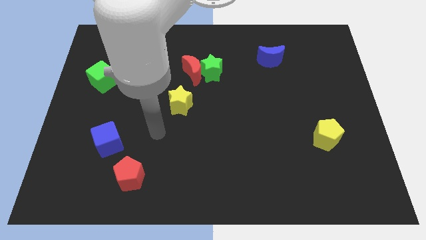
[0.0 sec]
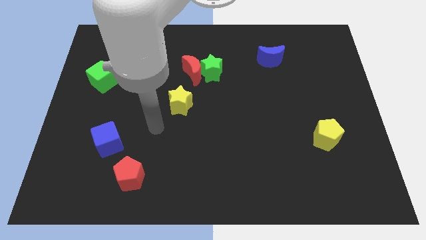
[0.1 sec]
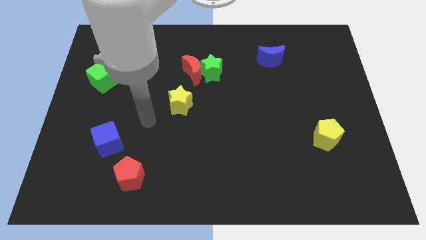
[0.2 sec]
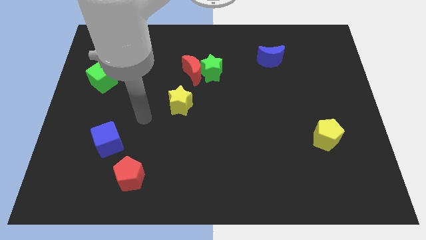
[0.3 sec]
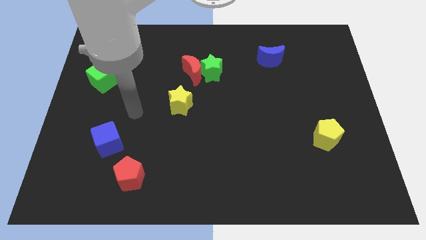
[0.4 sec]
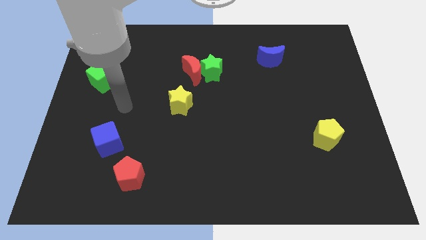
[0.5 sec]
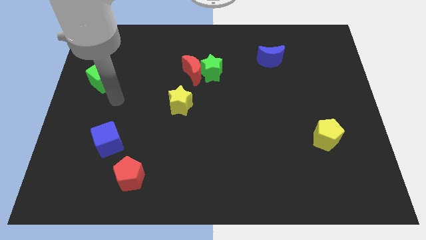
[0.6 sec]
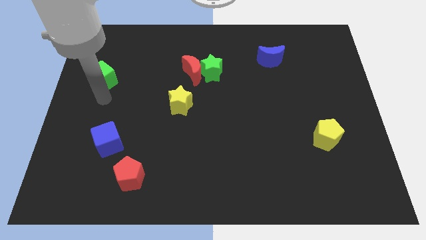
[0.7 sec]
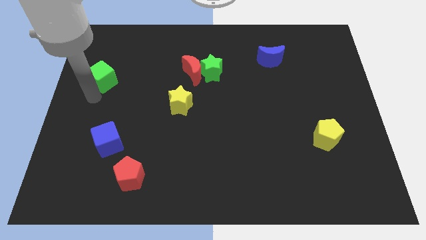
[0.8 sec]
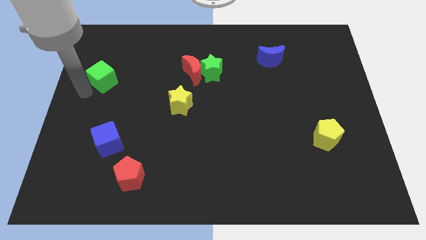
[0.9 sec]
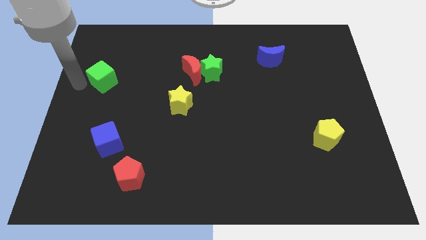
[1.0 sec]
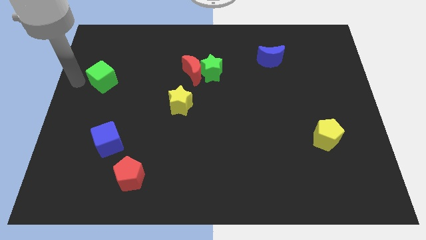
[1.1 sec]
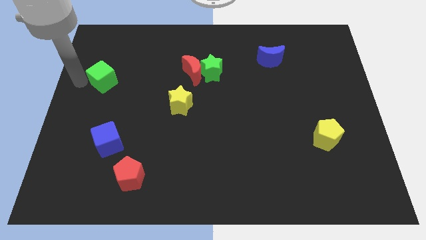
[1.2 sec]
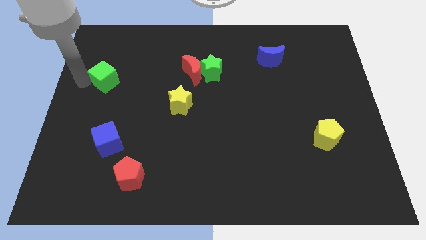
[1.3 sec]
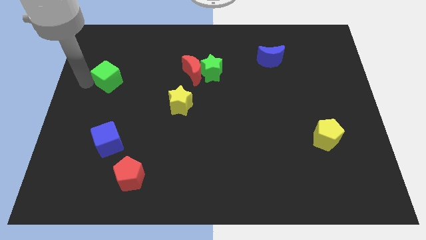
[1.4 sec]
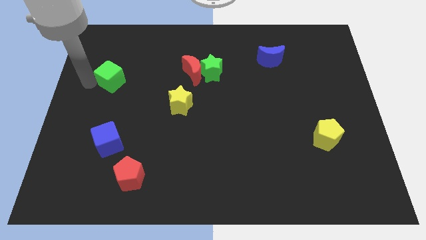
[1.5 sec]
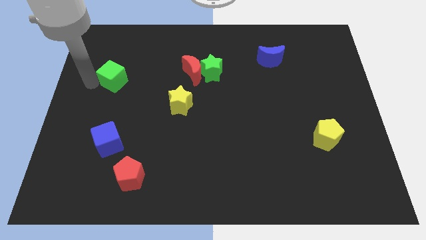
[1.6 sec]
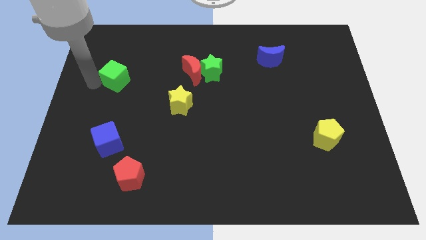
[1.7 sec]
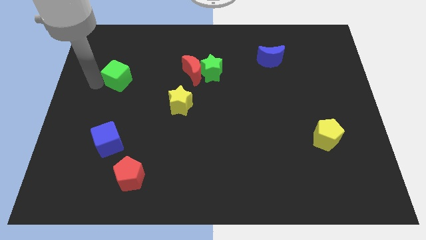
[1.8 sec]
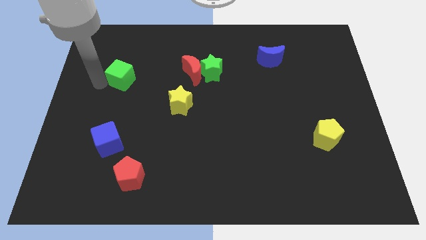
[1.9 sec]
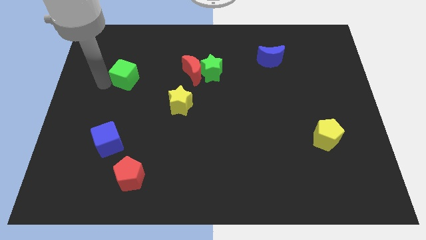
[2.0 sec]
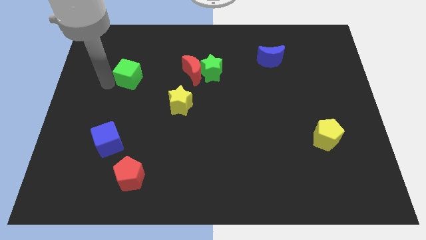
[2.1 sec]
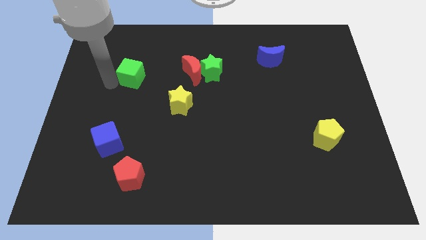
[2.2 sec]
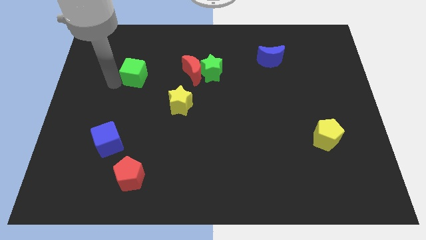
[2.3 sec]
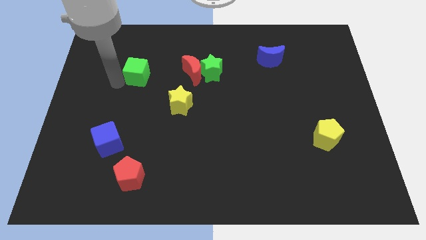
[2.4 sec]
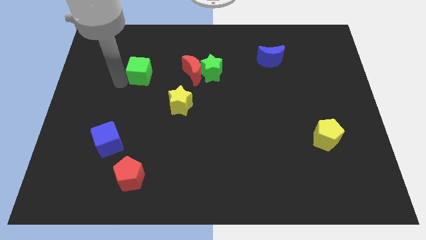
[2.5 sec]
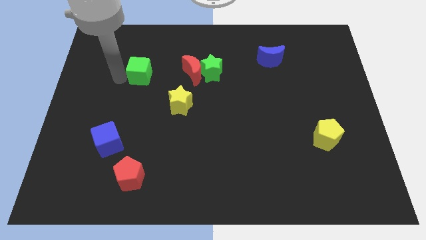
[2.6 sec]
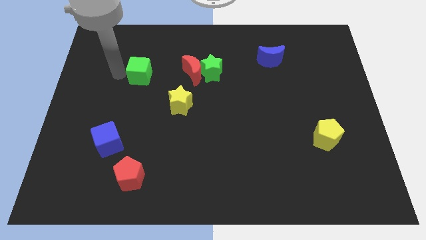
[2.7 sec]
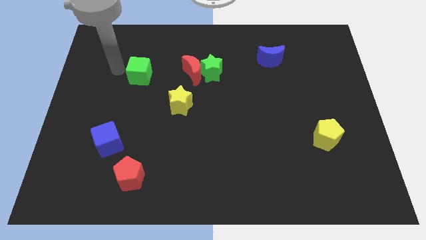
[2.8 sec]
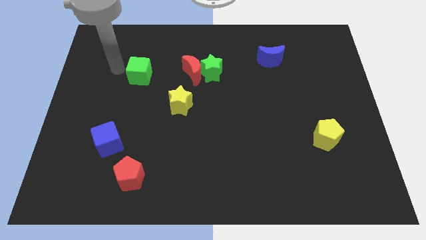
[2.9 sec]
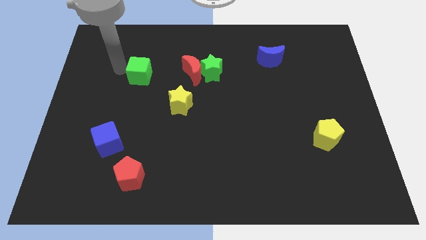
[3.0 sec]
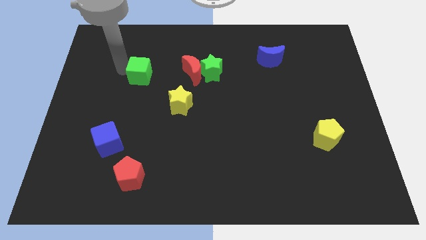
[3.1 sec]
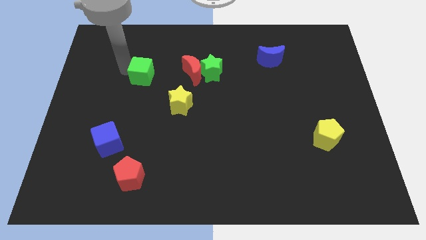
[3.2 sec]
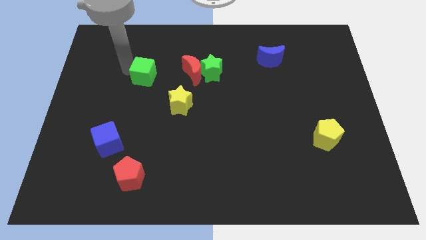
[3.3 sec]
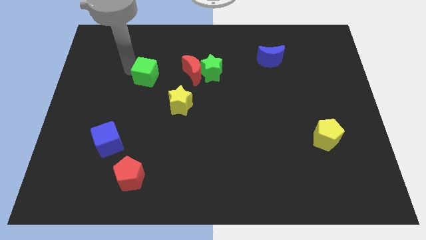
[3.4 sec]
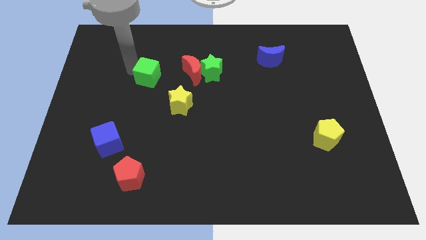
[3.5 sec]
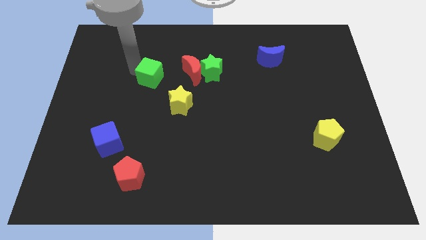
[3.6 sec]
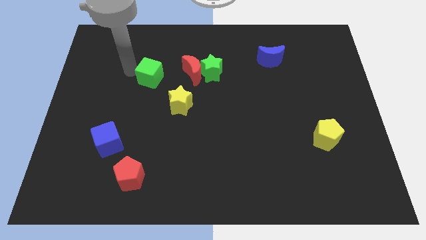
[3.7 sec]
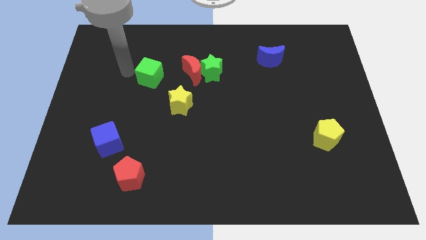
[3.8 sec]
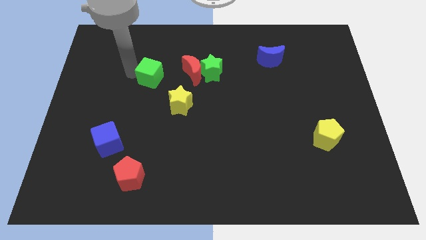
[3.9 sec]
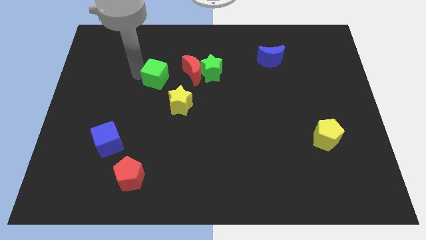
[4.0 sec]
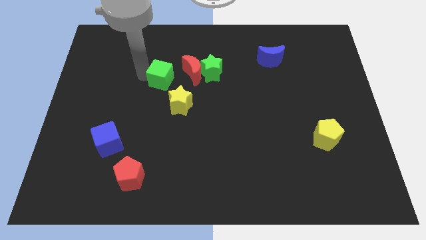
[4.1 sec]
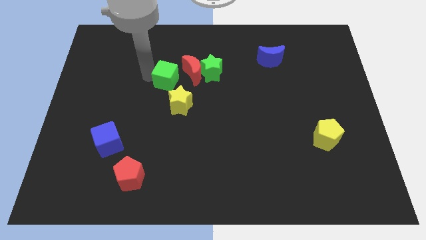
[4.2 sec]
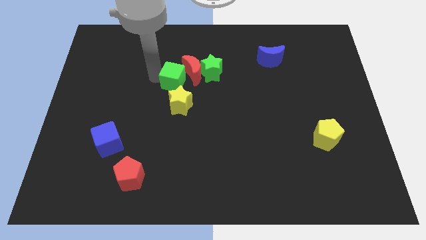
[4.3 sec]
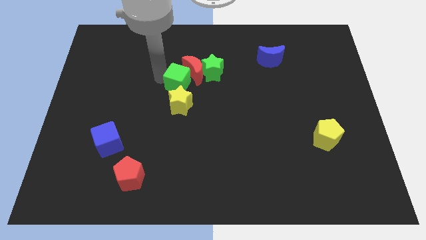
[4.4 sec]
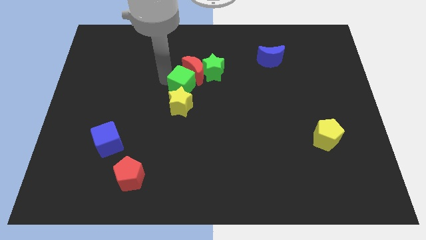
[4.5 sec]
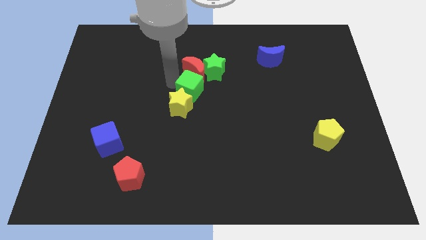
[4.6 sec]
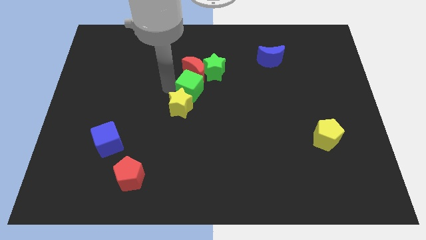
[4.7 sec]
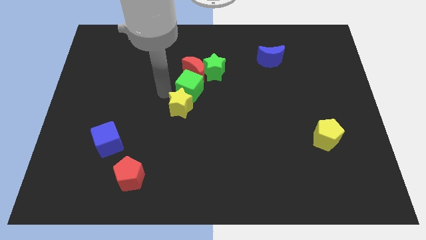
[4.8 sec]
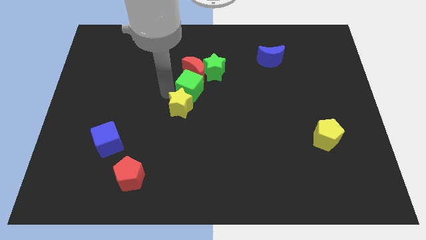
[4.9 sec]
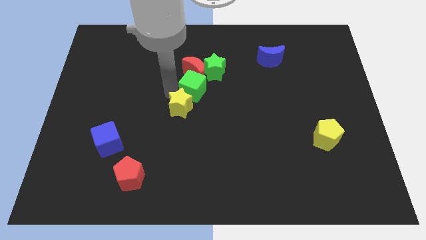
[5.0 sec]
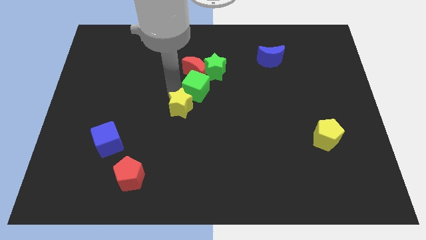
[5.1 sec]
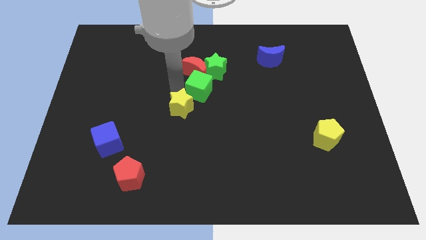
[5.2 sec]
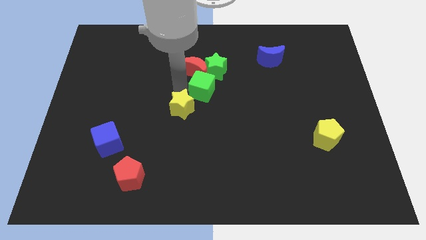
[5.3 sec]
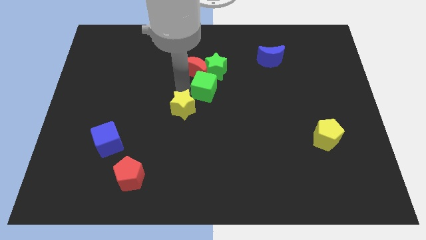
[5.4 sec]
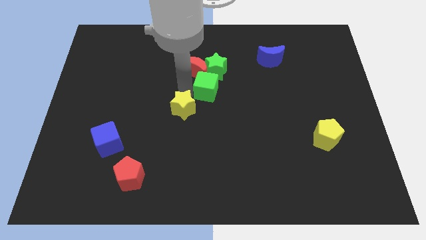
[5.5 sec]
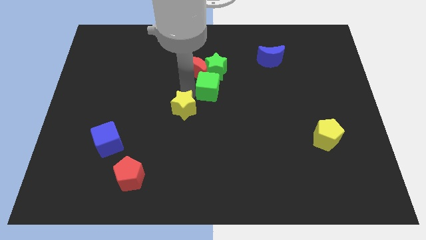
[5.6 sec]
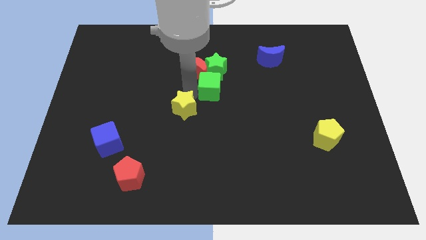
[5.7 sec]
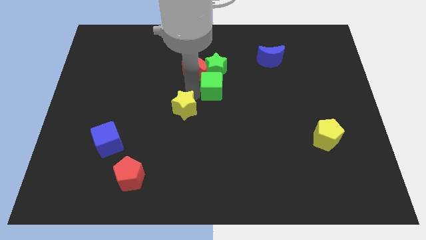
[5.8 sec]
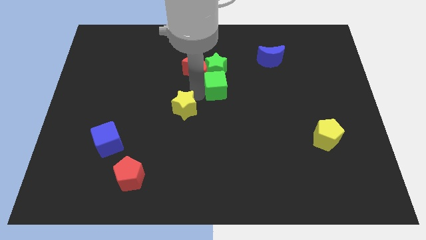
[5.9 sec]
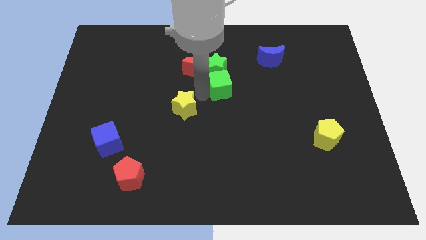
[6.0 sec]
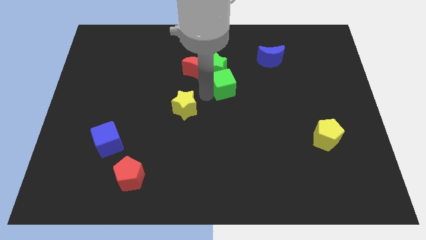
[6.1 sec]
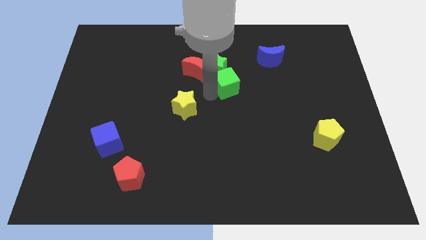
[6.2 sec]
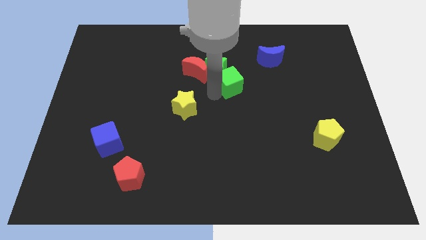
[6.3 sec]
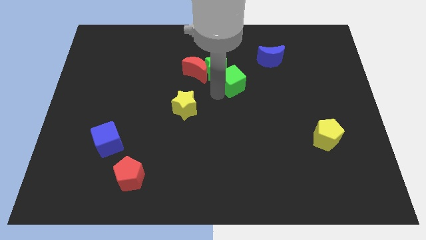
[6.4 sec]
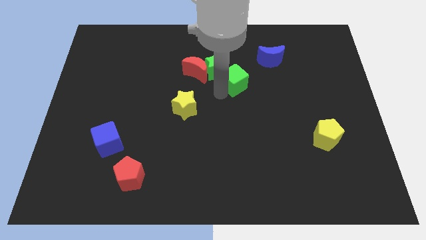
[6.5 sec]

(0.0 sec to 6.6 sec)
push the green cube to the bottom left of the blue moon

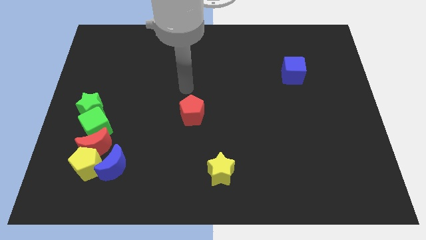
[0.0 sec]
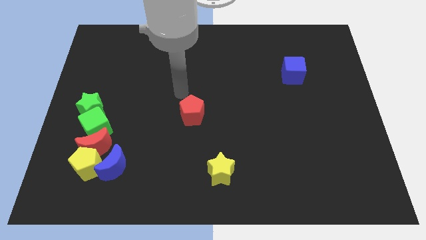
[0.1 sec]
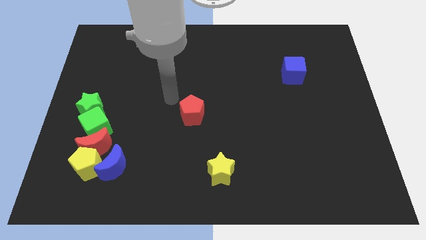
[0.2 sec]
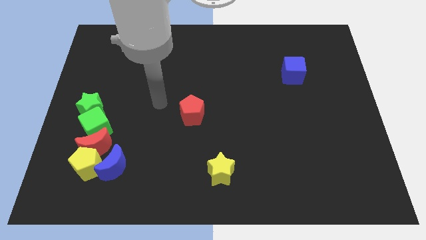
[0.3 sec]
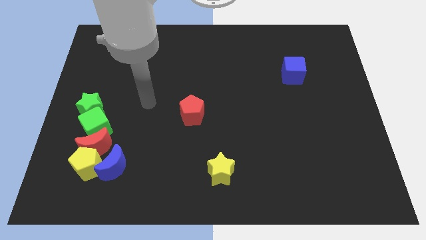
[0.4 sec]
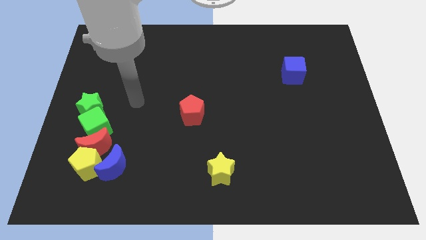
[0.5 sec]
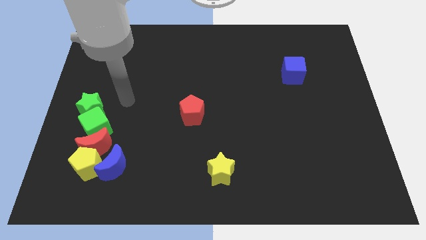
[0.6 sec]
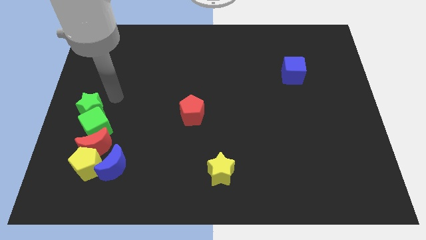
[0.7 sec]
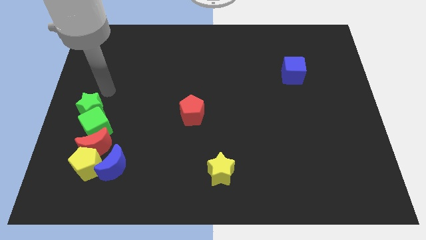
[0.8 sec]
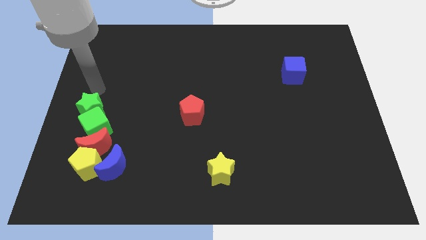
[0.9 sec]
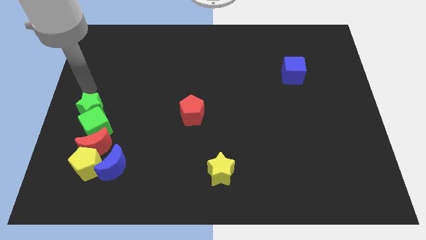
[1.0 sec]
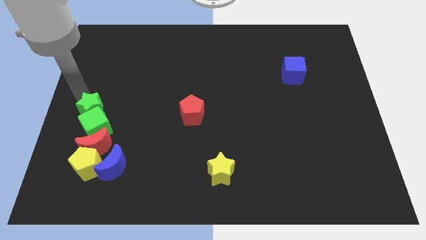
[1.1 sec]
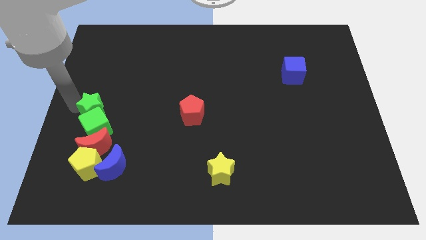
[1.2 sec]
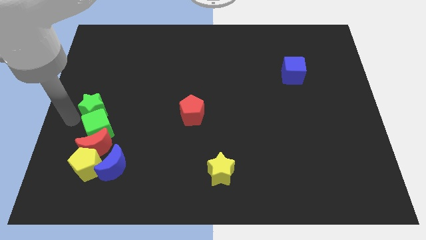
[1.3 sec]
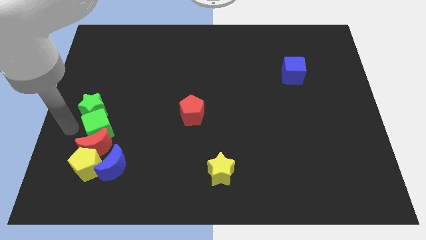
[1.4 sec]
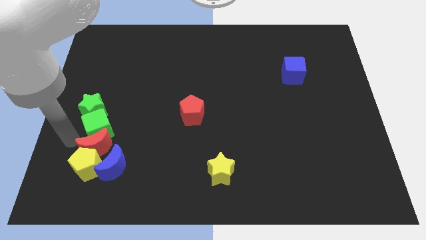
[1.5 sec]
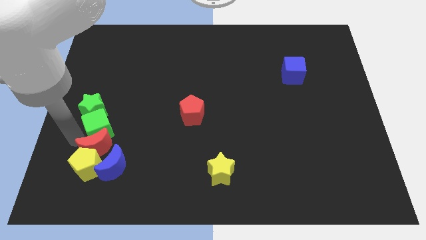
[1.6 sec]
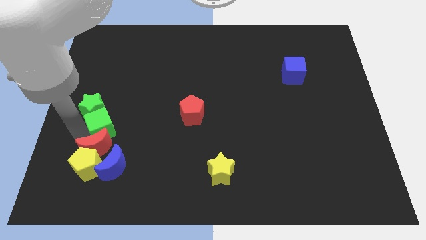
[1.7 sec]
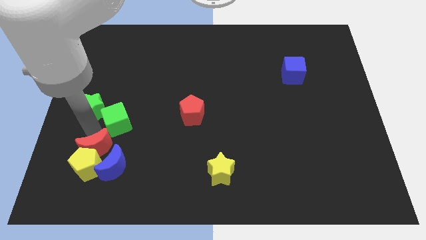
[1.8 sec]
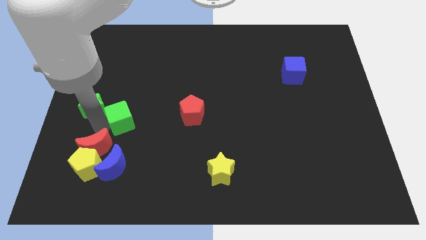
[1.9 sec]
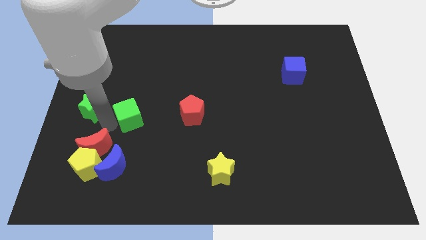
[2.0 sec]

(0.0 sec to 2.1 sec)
push the green cube just left of the red pentagon
